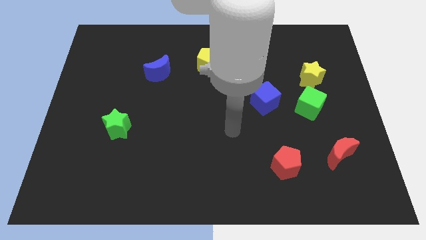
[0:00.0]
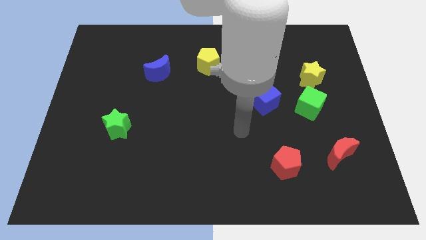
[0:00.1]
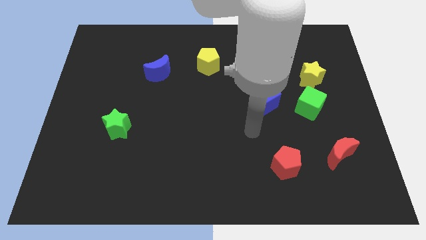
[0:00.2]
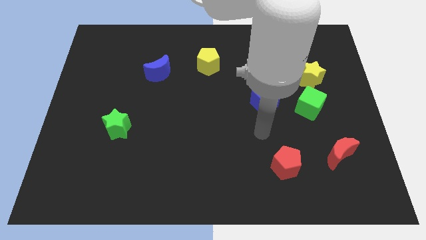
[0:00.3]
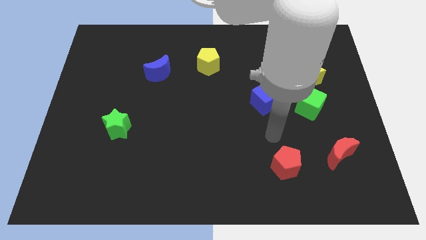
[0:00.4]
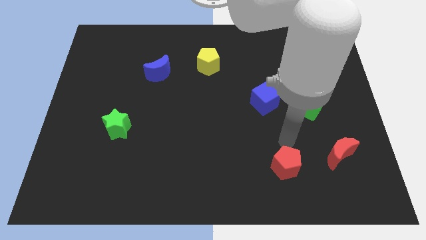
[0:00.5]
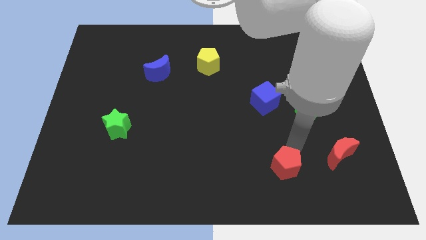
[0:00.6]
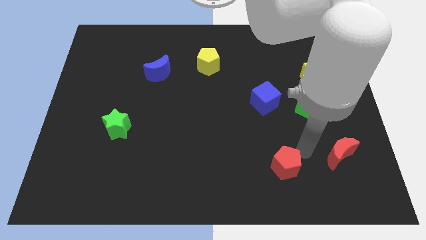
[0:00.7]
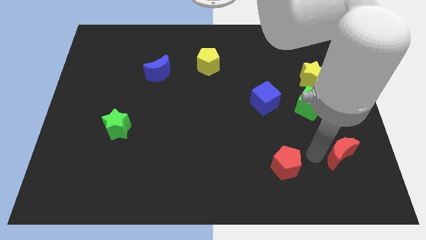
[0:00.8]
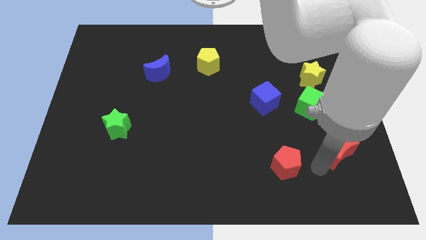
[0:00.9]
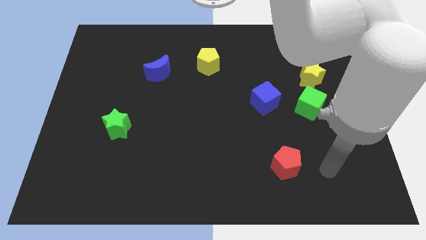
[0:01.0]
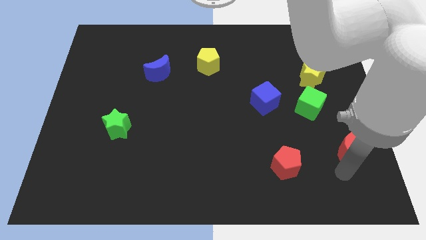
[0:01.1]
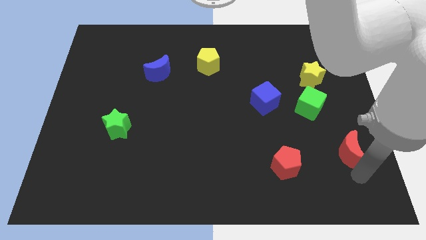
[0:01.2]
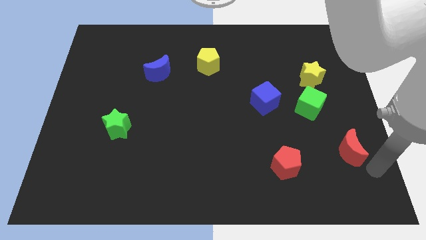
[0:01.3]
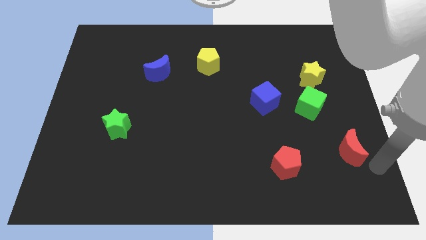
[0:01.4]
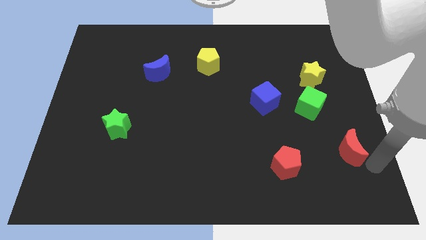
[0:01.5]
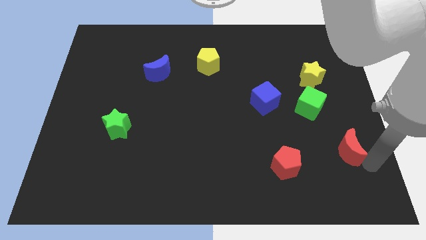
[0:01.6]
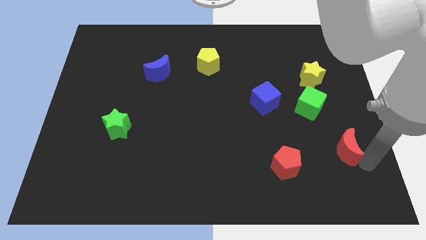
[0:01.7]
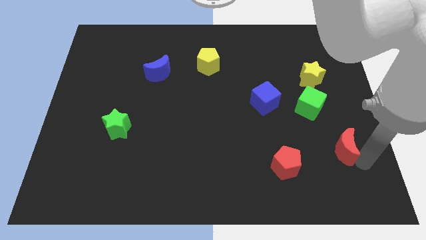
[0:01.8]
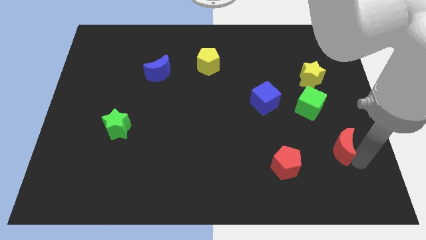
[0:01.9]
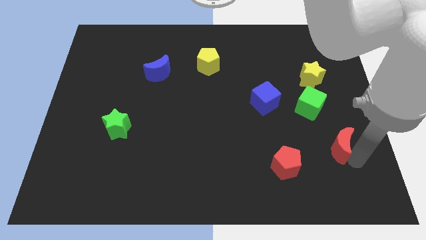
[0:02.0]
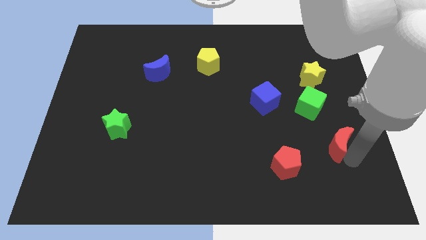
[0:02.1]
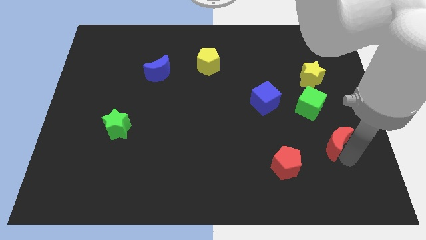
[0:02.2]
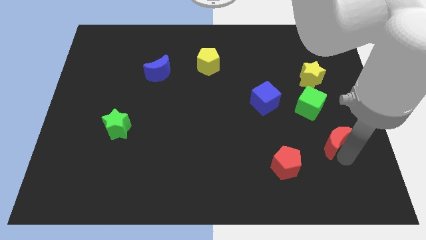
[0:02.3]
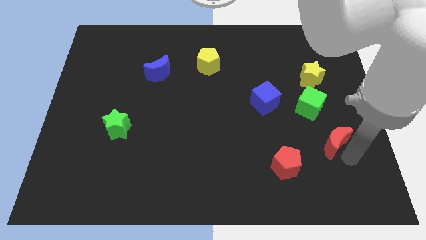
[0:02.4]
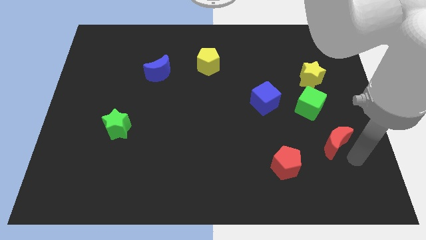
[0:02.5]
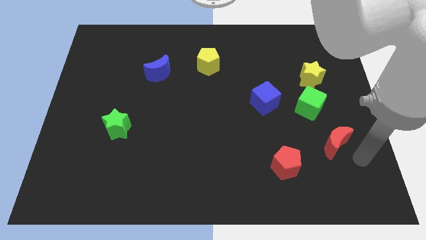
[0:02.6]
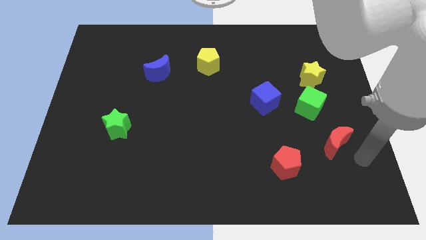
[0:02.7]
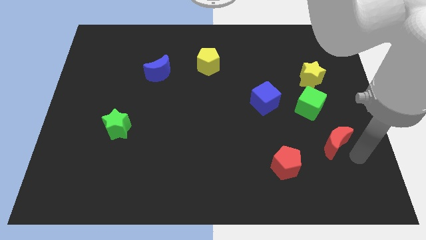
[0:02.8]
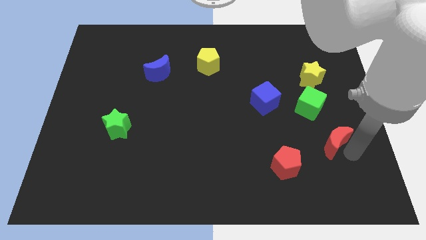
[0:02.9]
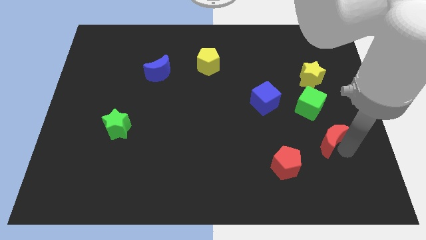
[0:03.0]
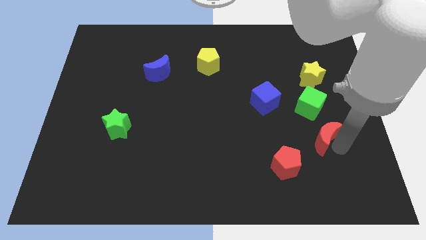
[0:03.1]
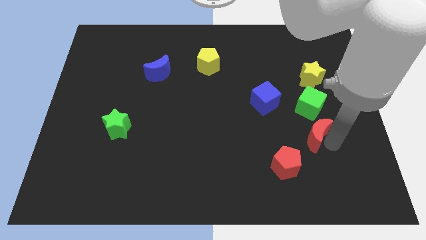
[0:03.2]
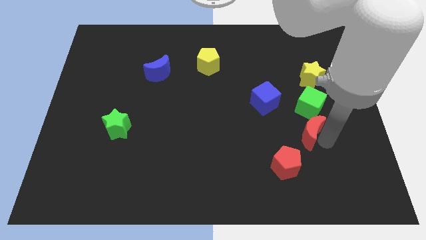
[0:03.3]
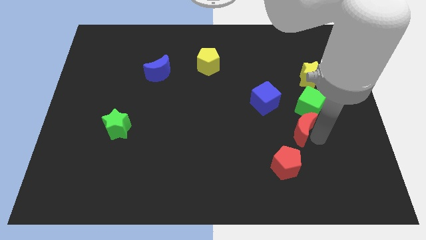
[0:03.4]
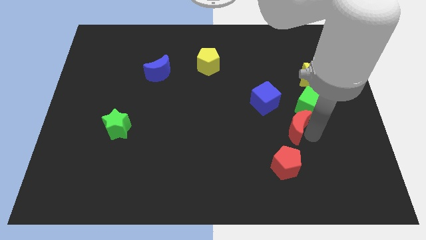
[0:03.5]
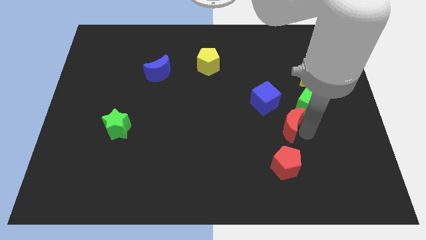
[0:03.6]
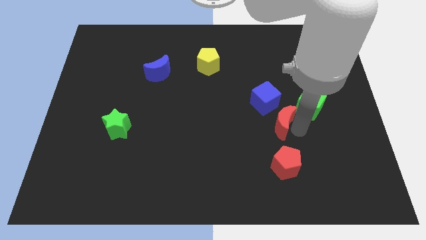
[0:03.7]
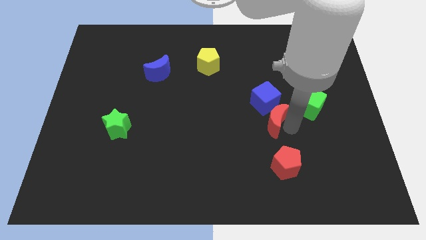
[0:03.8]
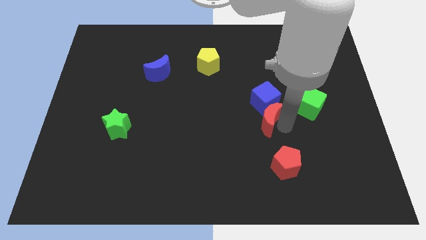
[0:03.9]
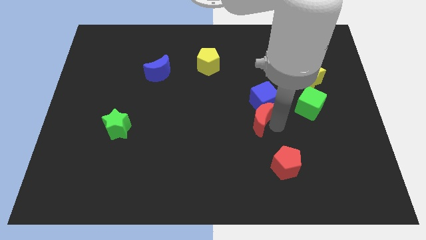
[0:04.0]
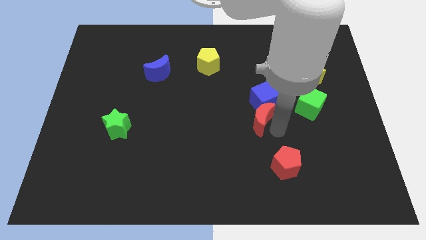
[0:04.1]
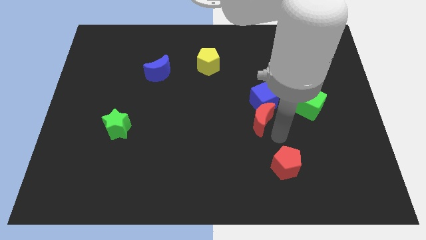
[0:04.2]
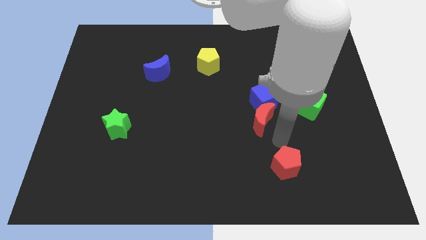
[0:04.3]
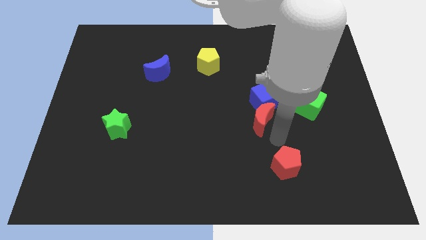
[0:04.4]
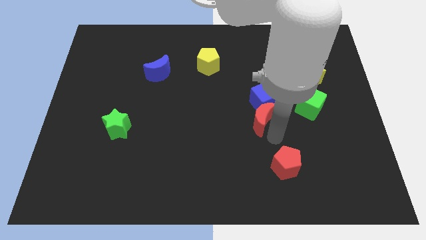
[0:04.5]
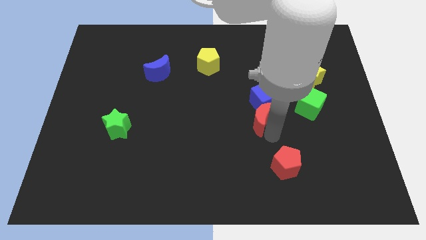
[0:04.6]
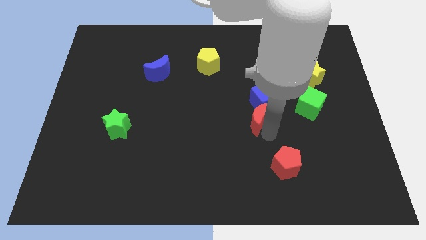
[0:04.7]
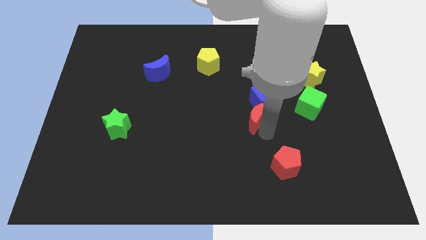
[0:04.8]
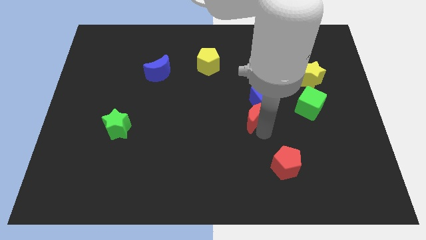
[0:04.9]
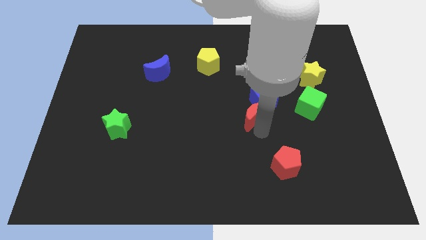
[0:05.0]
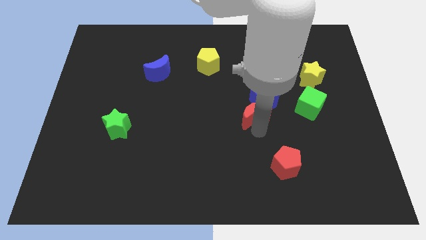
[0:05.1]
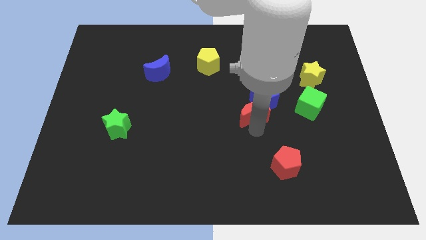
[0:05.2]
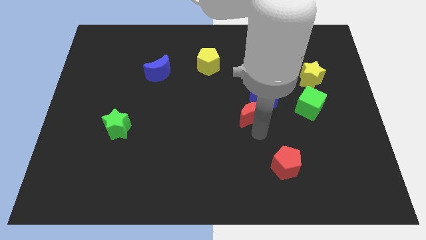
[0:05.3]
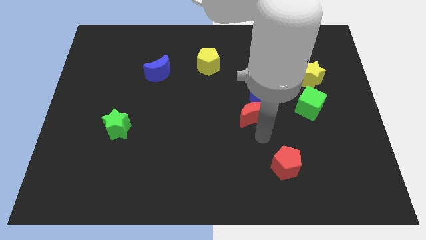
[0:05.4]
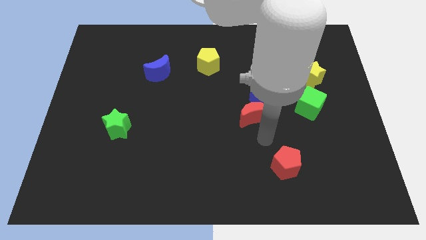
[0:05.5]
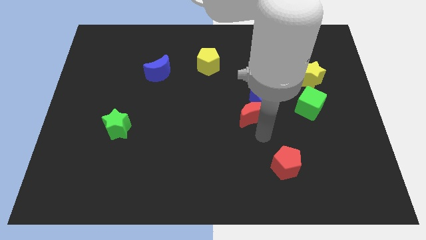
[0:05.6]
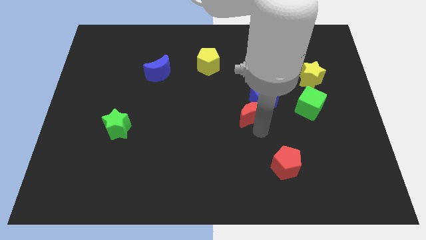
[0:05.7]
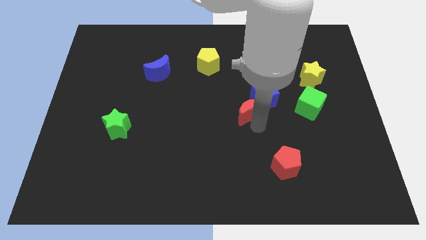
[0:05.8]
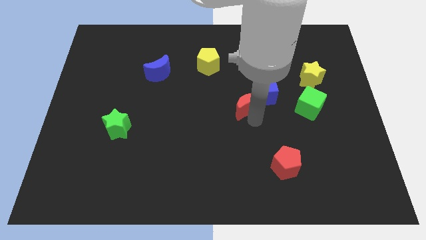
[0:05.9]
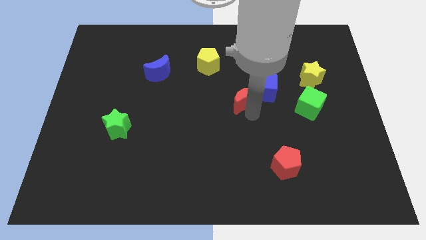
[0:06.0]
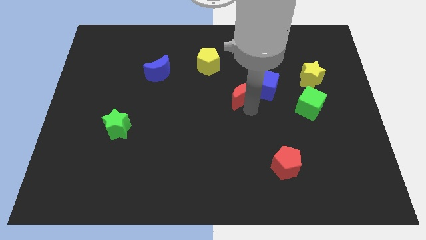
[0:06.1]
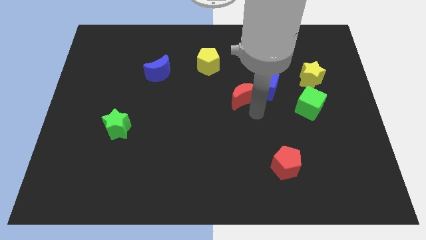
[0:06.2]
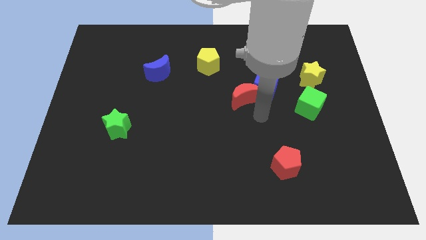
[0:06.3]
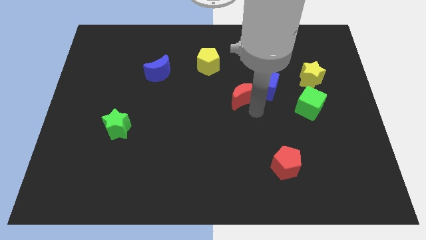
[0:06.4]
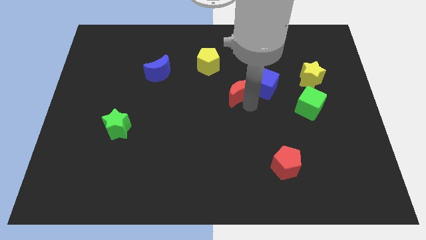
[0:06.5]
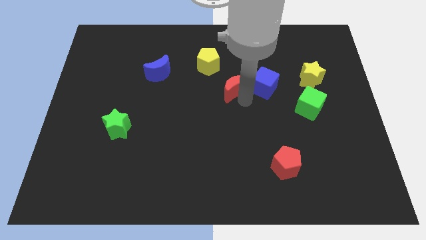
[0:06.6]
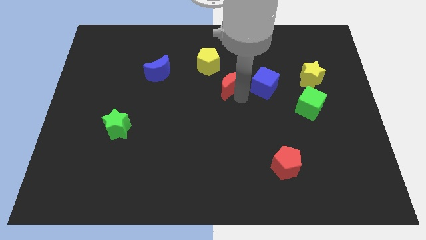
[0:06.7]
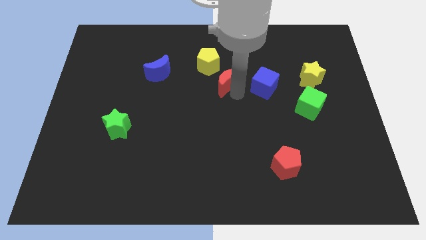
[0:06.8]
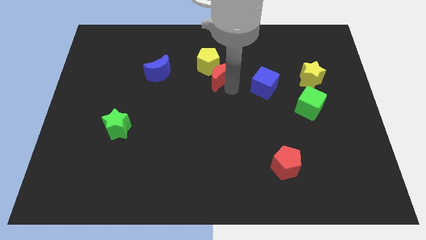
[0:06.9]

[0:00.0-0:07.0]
put the red moon close to the yellow pentagon
